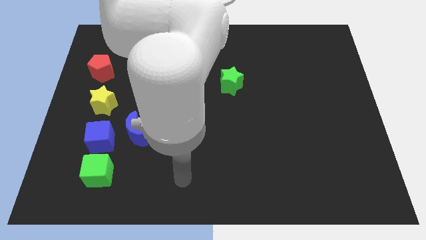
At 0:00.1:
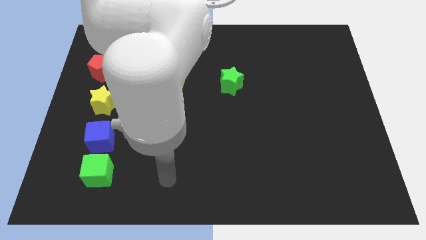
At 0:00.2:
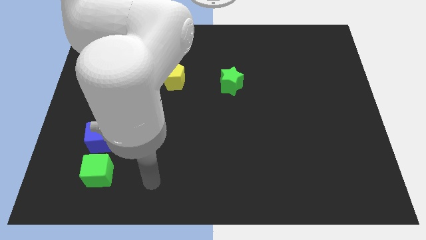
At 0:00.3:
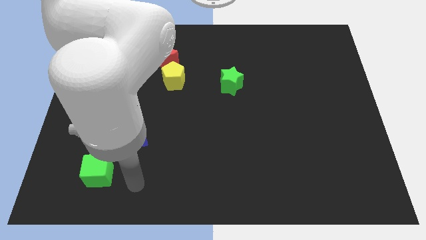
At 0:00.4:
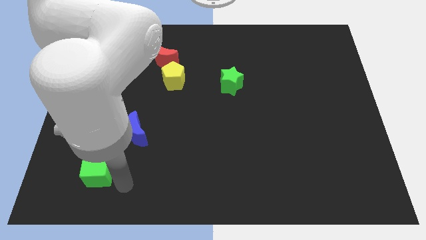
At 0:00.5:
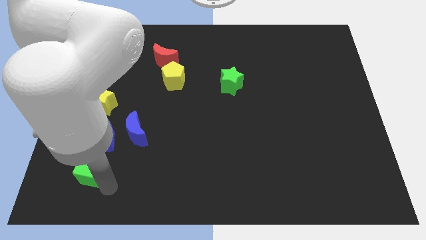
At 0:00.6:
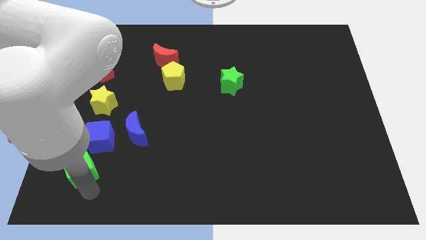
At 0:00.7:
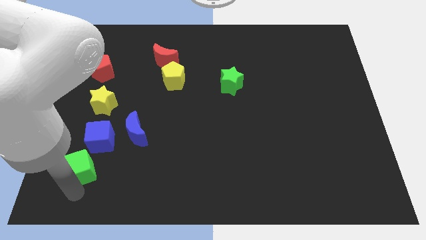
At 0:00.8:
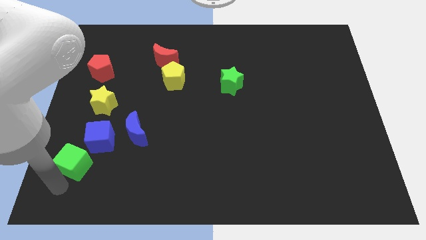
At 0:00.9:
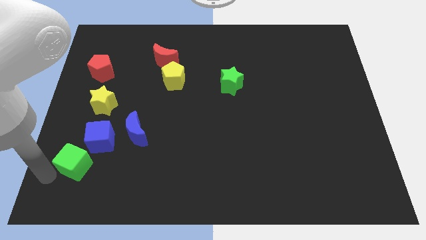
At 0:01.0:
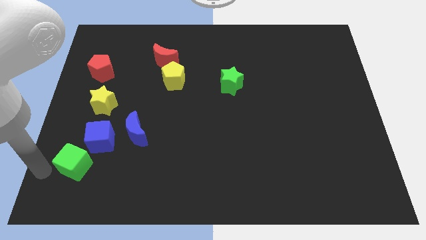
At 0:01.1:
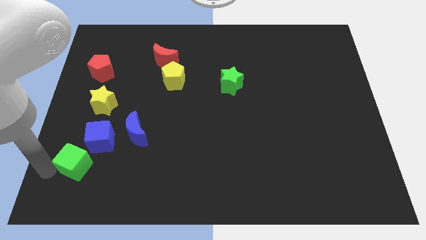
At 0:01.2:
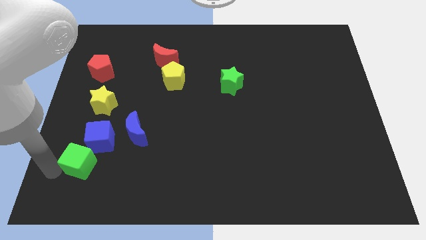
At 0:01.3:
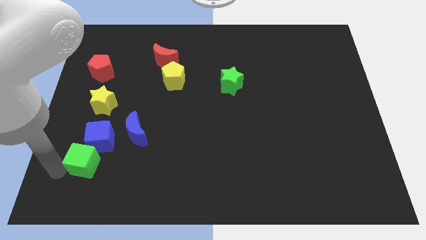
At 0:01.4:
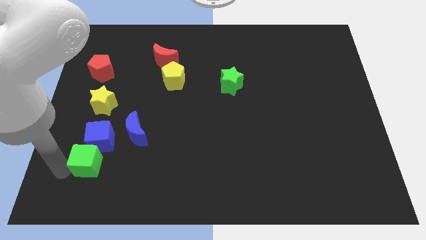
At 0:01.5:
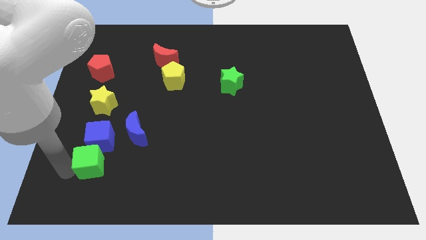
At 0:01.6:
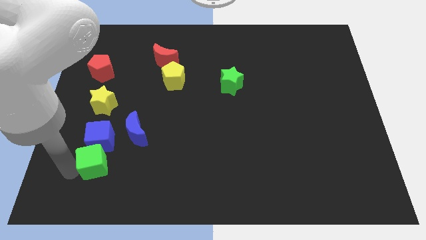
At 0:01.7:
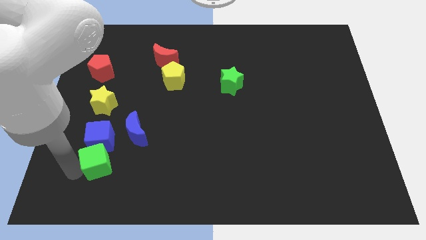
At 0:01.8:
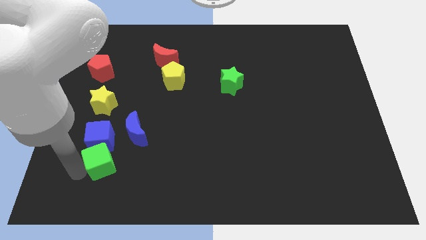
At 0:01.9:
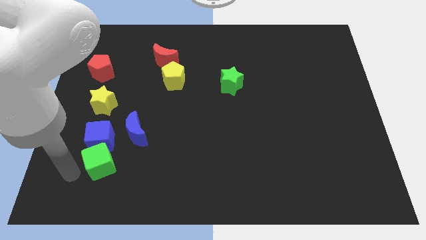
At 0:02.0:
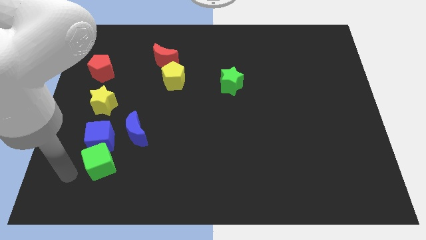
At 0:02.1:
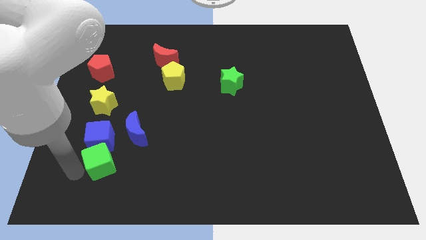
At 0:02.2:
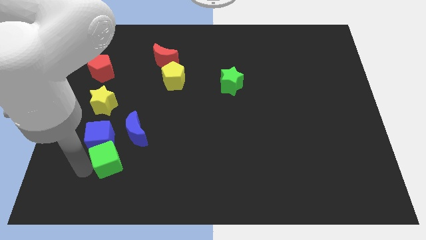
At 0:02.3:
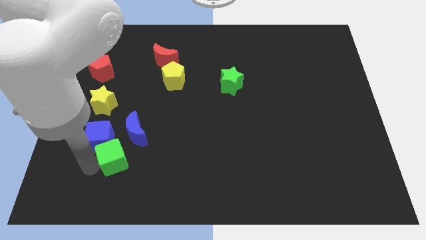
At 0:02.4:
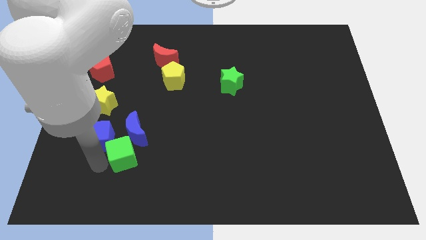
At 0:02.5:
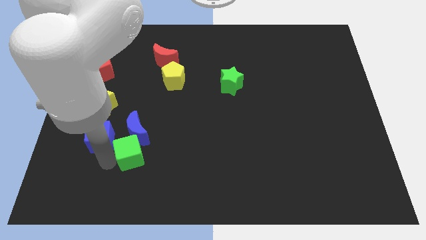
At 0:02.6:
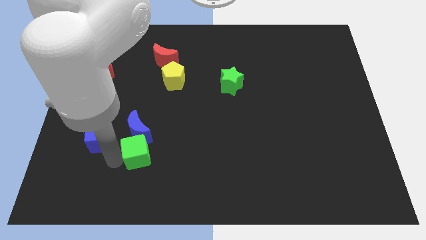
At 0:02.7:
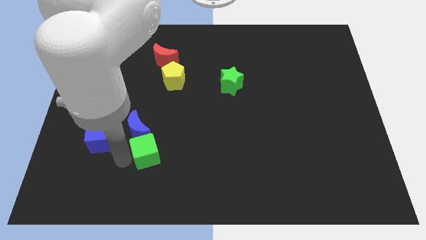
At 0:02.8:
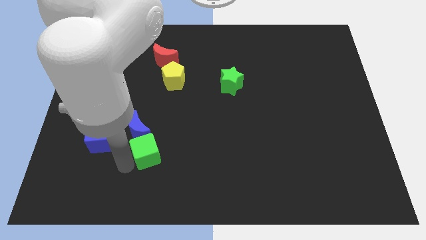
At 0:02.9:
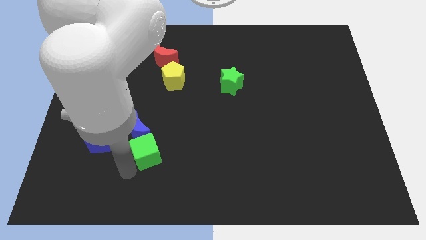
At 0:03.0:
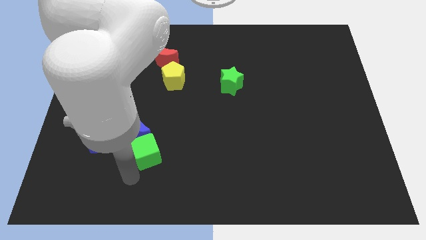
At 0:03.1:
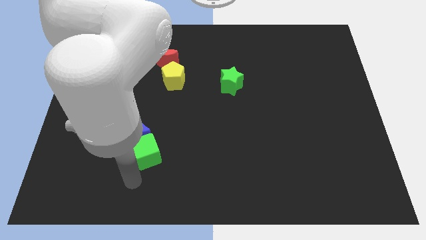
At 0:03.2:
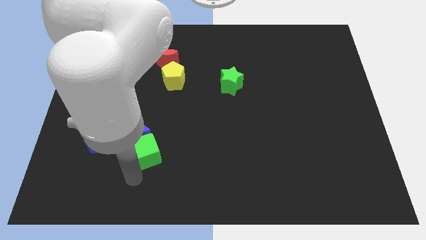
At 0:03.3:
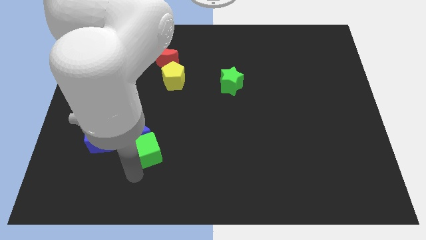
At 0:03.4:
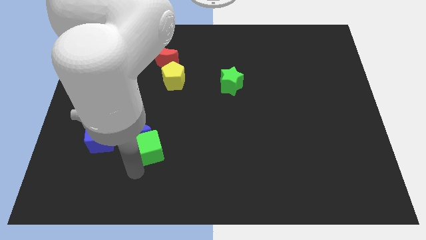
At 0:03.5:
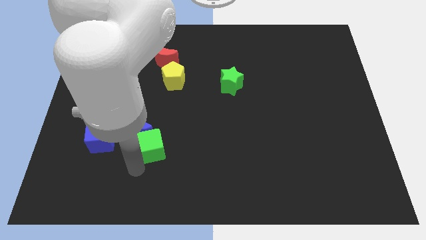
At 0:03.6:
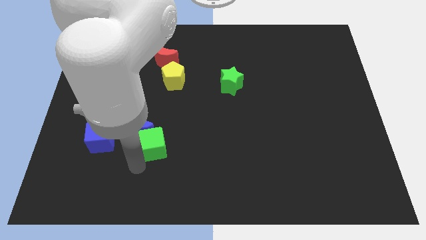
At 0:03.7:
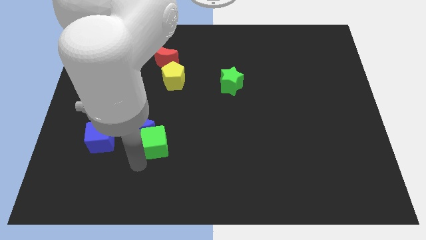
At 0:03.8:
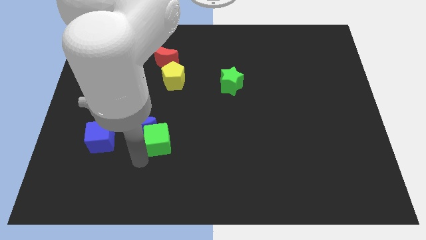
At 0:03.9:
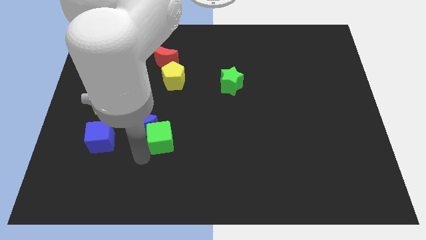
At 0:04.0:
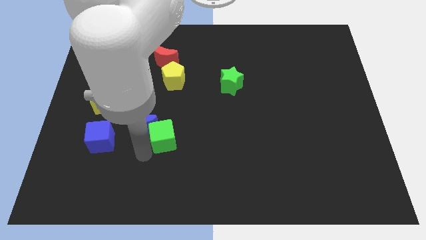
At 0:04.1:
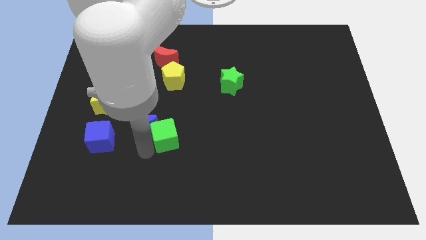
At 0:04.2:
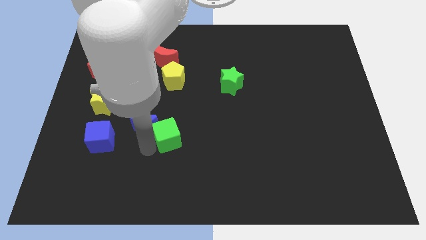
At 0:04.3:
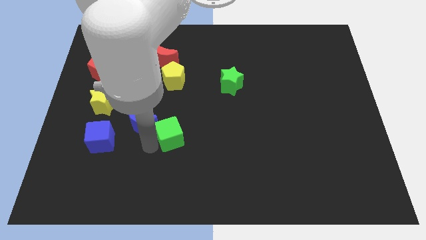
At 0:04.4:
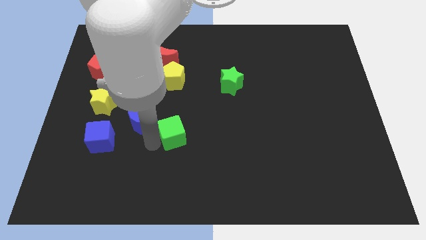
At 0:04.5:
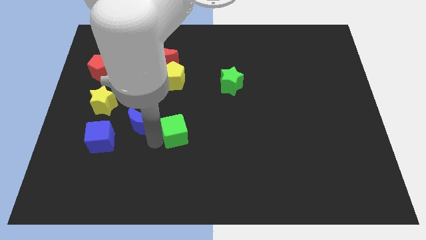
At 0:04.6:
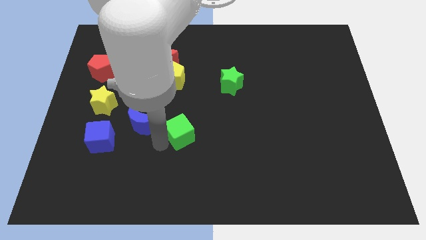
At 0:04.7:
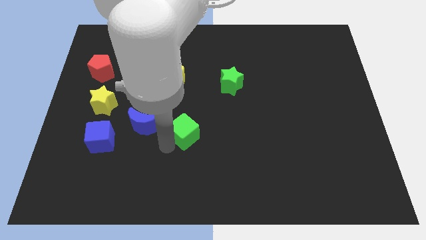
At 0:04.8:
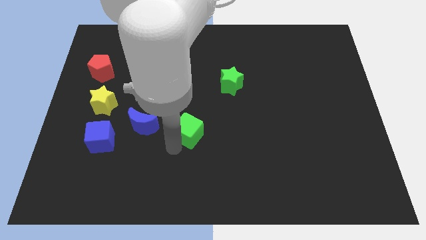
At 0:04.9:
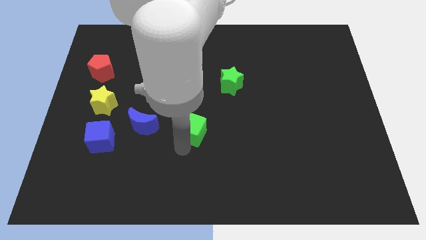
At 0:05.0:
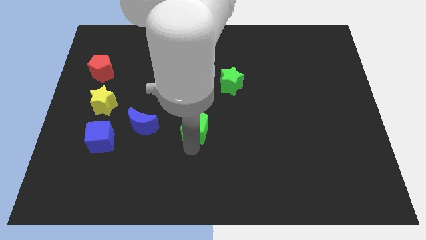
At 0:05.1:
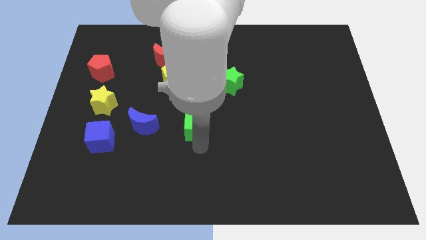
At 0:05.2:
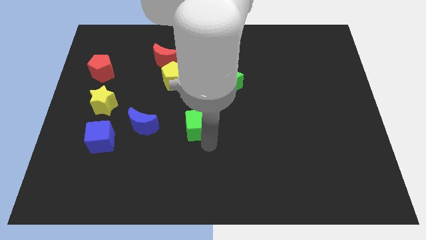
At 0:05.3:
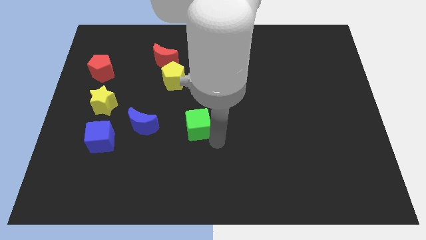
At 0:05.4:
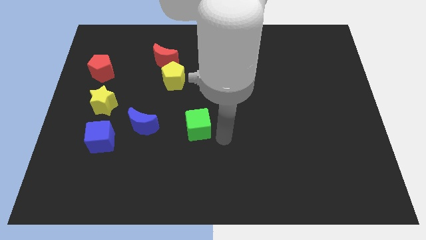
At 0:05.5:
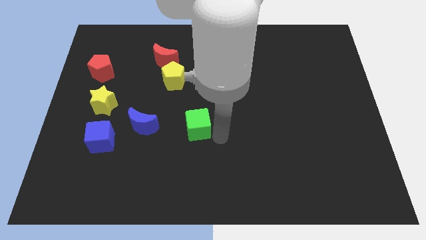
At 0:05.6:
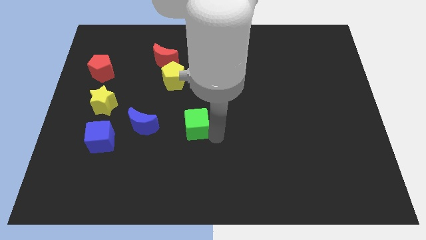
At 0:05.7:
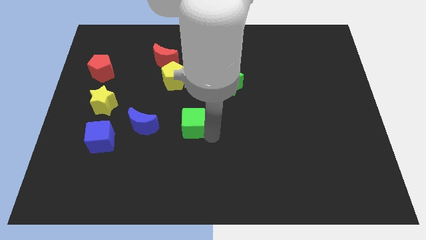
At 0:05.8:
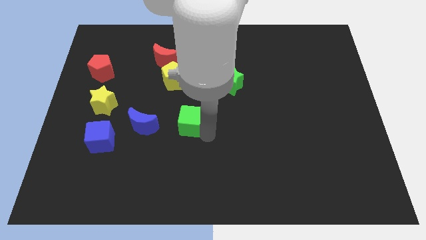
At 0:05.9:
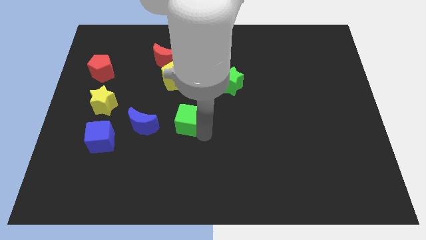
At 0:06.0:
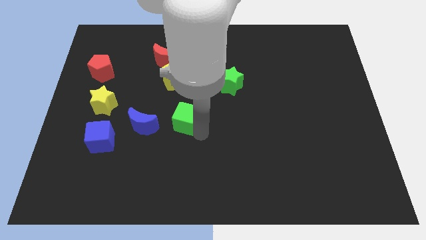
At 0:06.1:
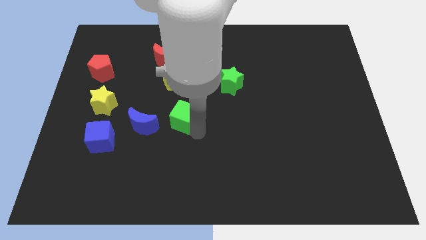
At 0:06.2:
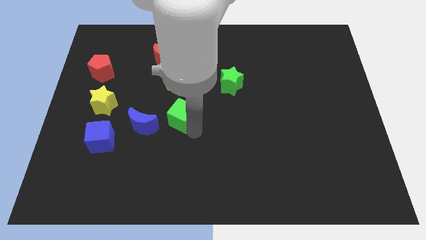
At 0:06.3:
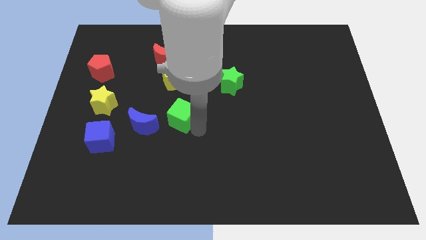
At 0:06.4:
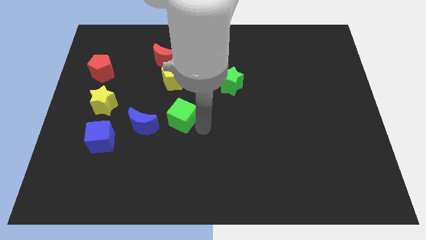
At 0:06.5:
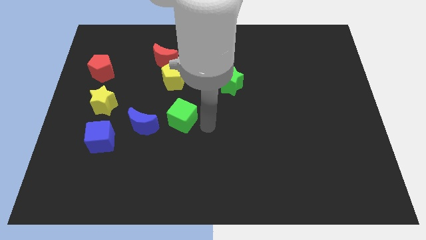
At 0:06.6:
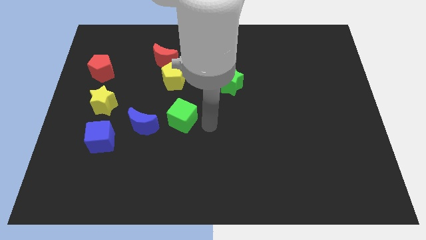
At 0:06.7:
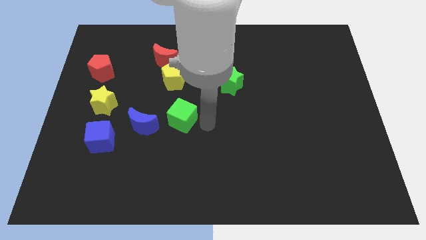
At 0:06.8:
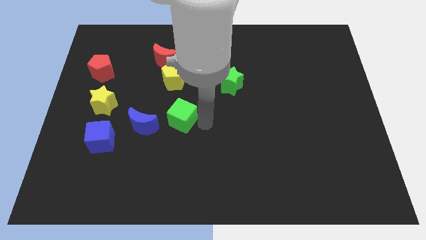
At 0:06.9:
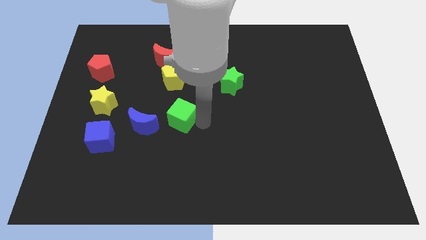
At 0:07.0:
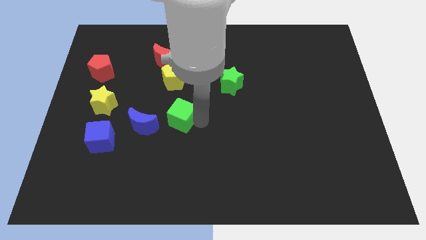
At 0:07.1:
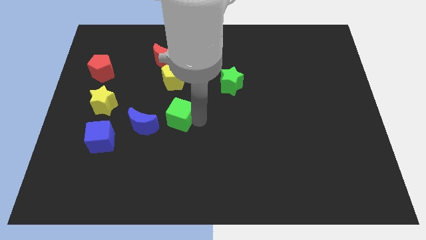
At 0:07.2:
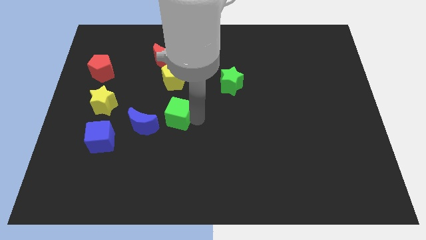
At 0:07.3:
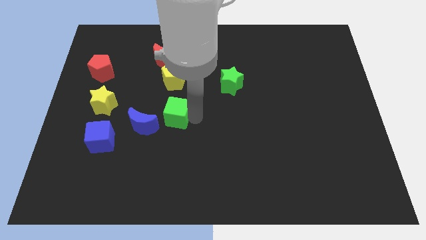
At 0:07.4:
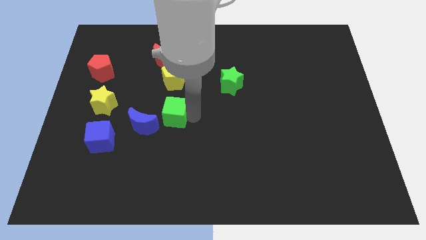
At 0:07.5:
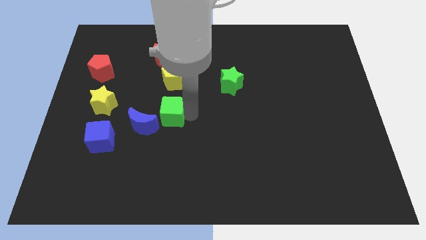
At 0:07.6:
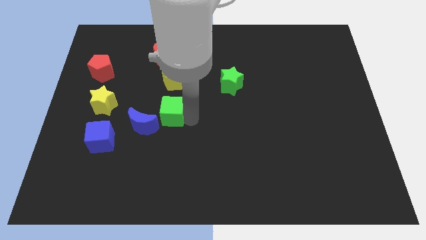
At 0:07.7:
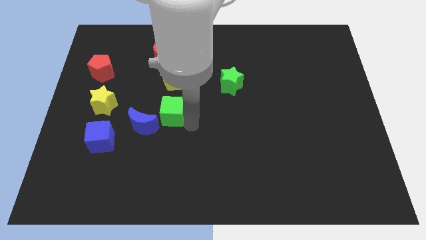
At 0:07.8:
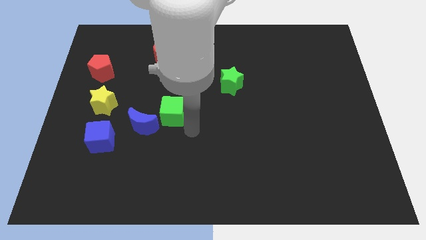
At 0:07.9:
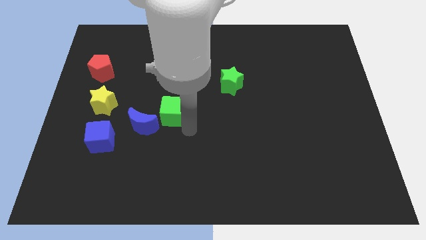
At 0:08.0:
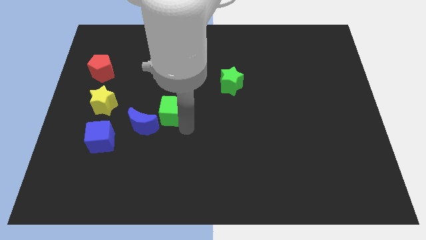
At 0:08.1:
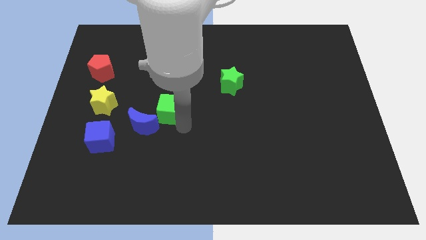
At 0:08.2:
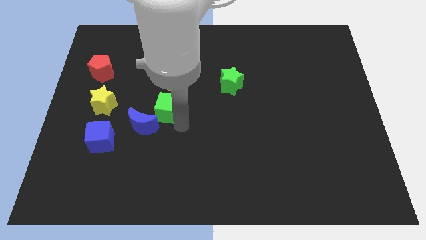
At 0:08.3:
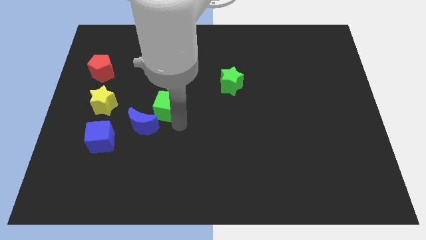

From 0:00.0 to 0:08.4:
move the green cube below the red moon
